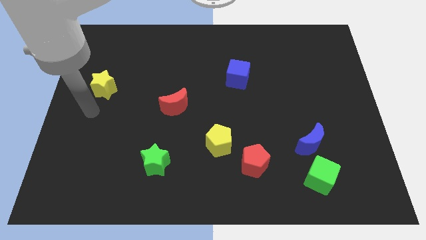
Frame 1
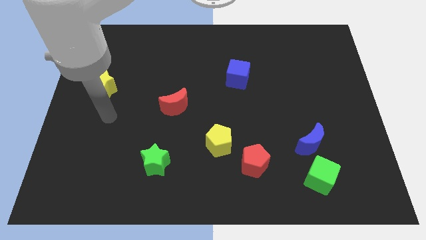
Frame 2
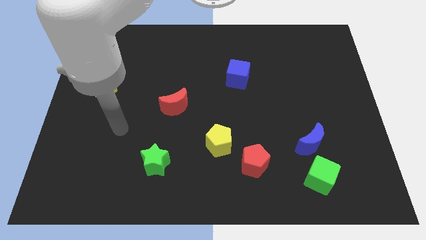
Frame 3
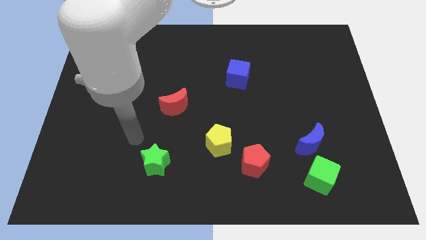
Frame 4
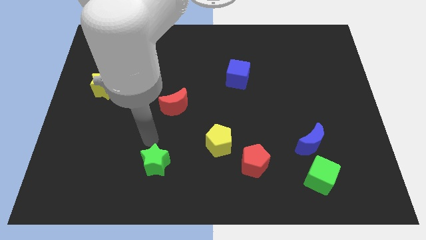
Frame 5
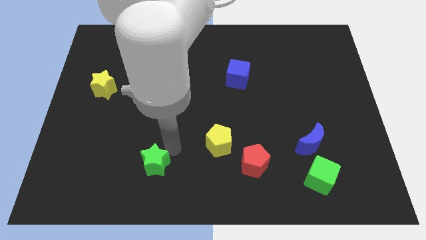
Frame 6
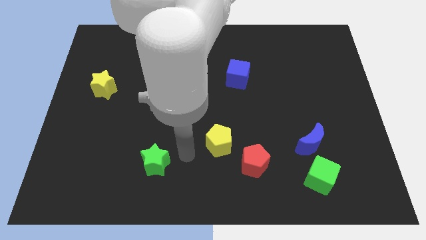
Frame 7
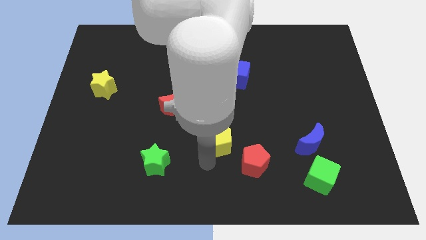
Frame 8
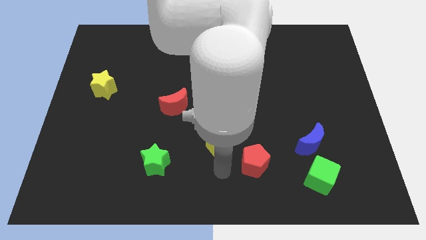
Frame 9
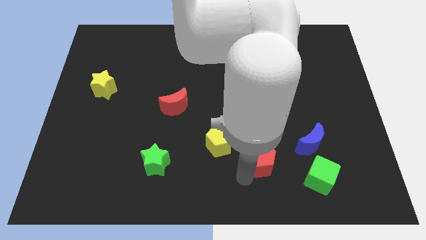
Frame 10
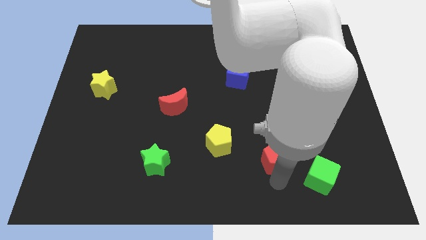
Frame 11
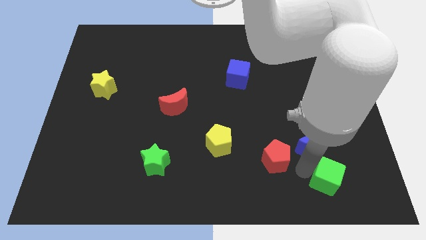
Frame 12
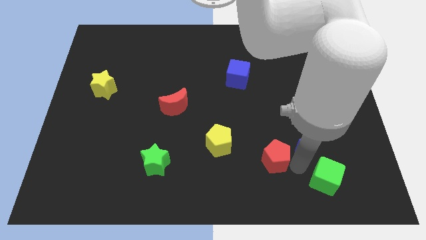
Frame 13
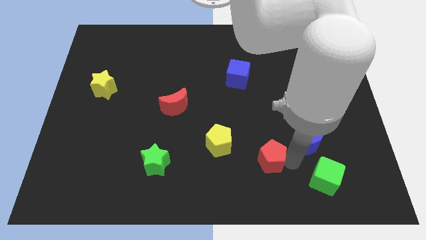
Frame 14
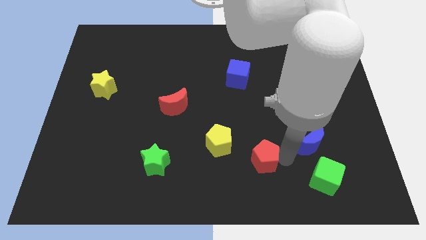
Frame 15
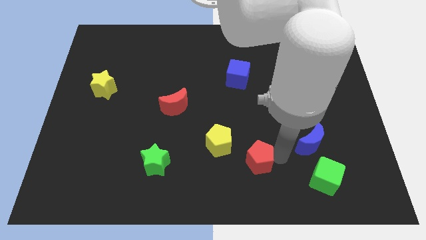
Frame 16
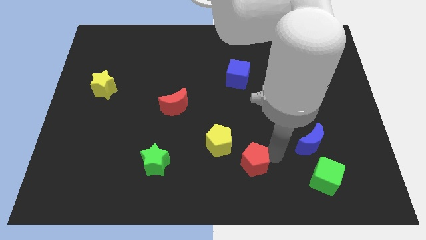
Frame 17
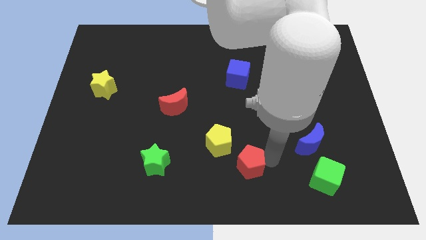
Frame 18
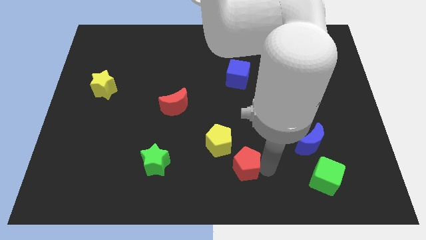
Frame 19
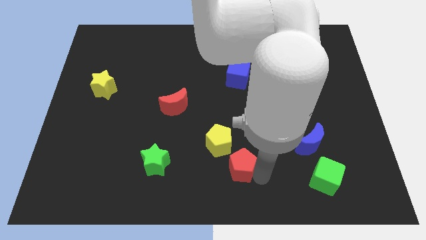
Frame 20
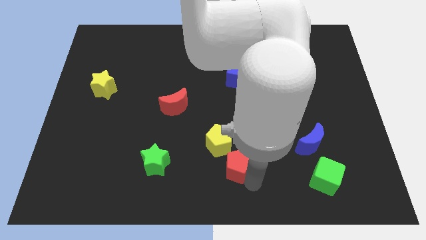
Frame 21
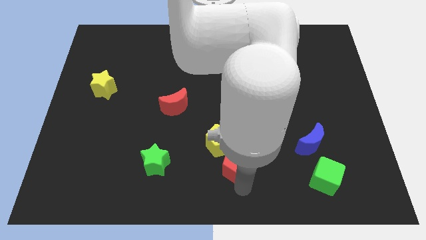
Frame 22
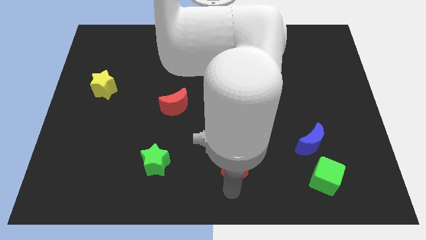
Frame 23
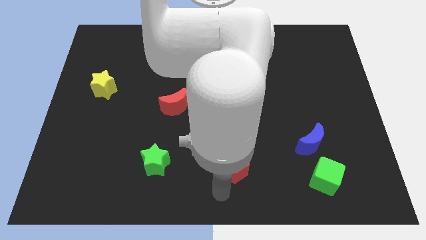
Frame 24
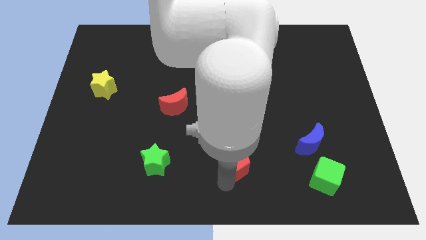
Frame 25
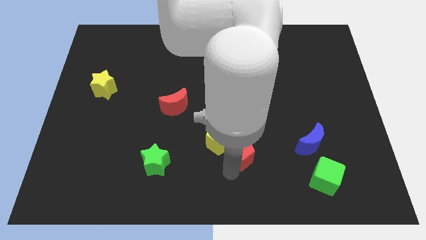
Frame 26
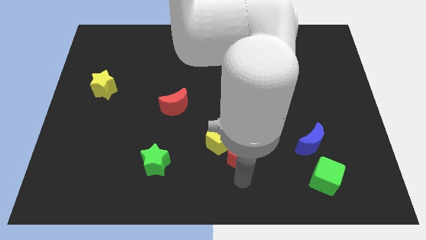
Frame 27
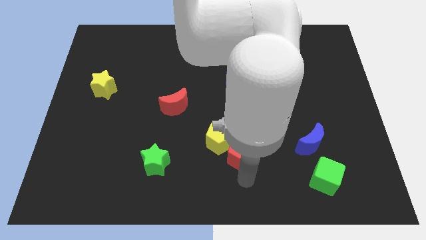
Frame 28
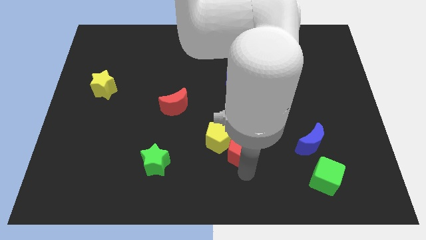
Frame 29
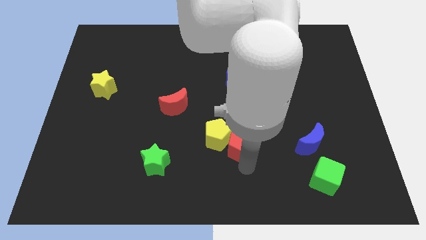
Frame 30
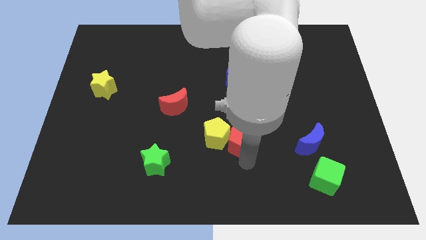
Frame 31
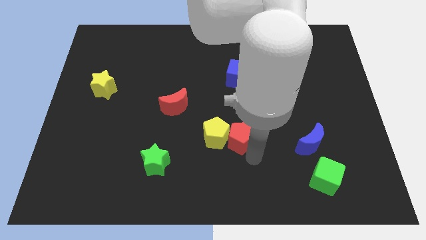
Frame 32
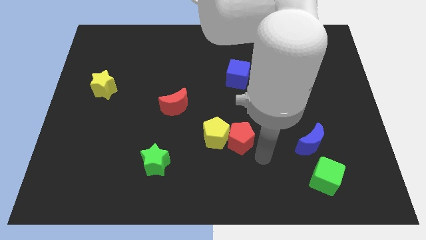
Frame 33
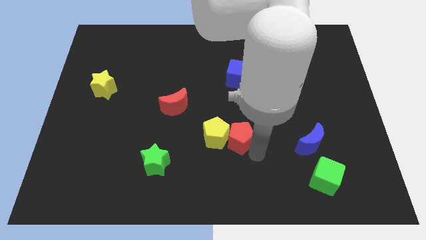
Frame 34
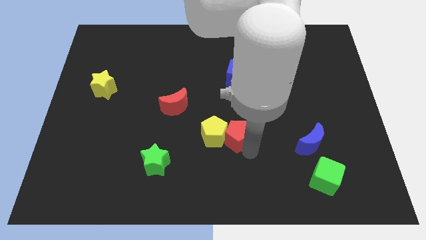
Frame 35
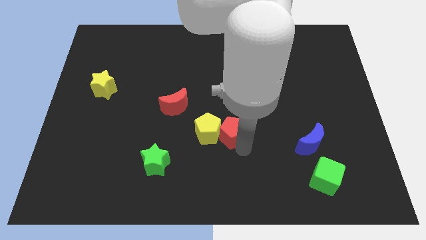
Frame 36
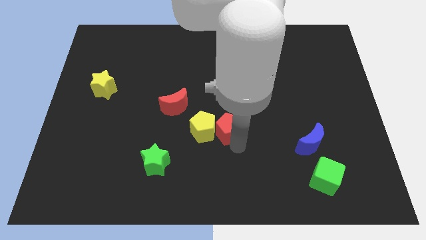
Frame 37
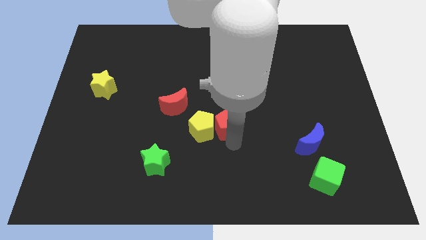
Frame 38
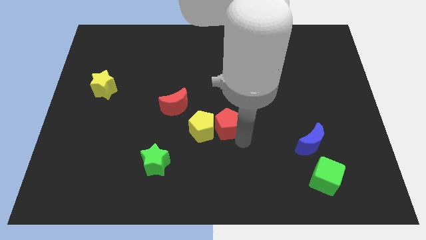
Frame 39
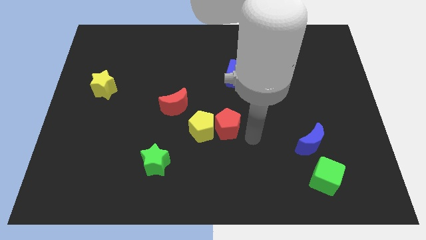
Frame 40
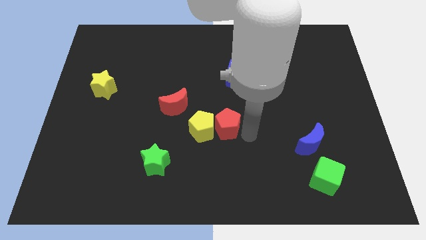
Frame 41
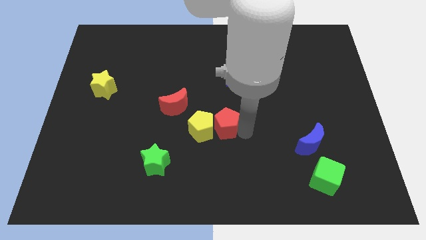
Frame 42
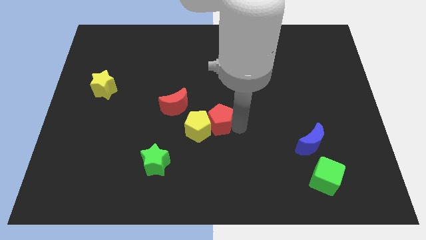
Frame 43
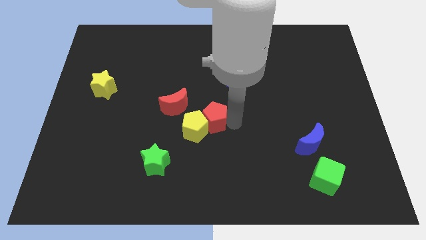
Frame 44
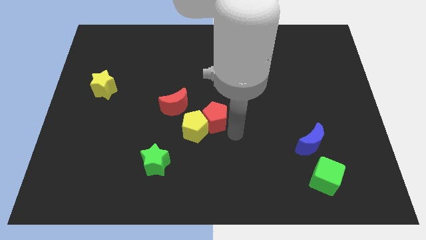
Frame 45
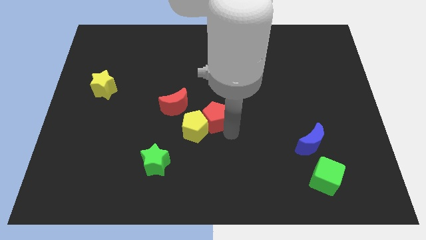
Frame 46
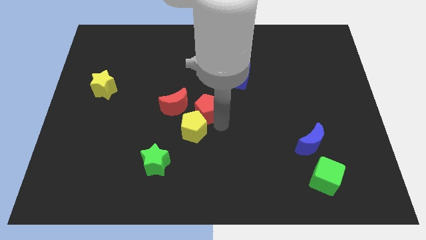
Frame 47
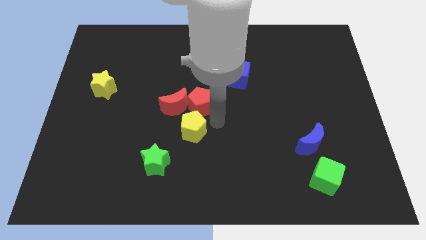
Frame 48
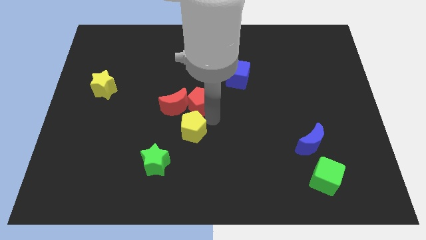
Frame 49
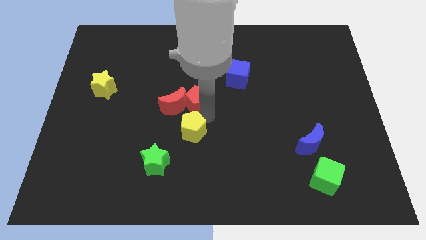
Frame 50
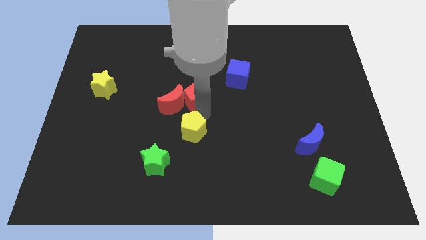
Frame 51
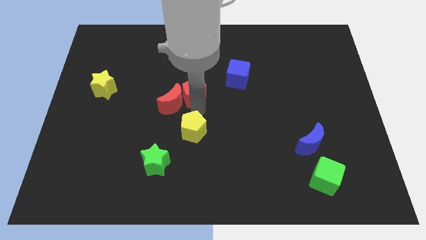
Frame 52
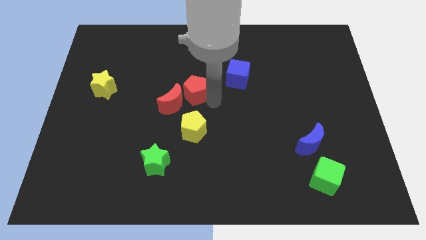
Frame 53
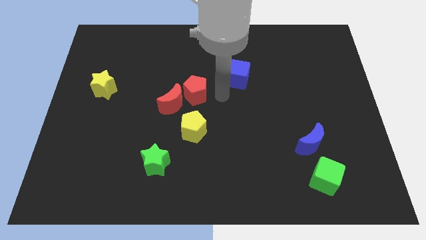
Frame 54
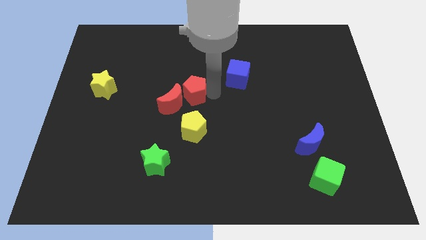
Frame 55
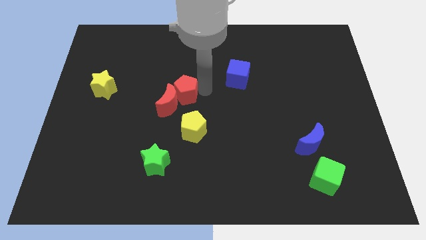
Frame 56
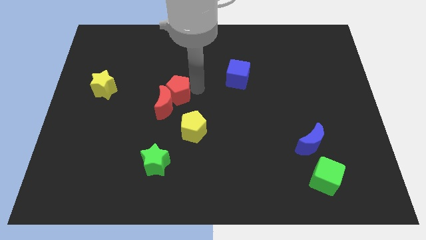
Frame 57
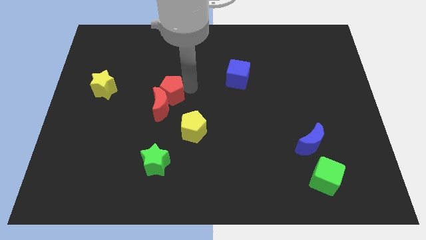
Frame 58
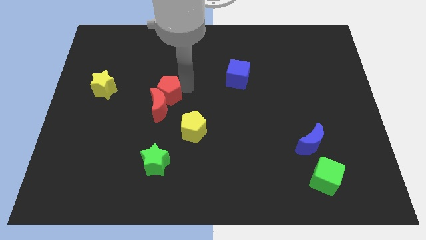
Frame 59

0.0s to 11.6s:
push the red pentagon to the right side of the yellow star

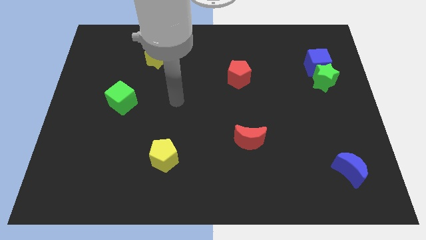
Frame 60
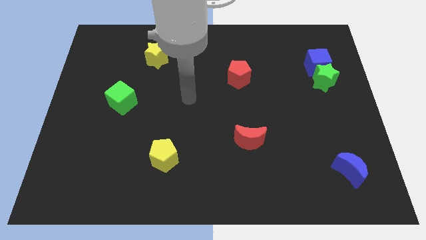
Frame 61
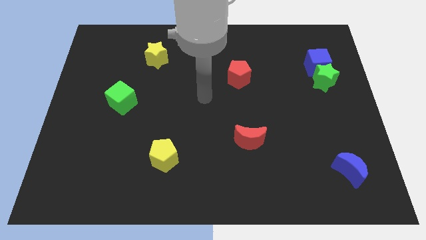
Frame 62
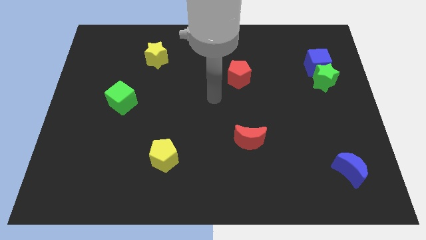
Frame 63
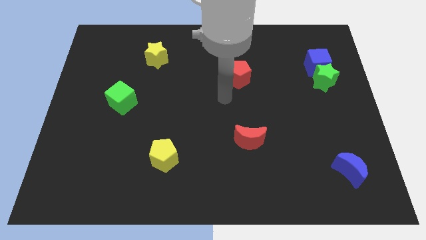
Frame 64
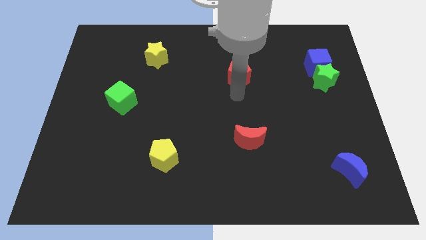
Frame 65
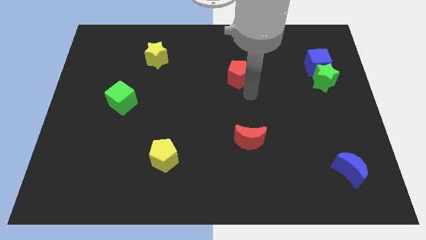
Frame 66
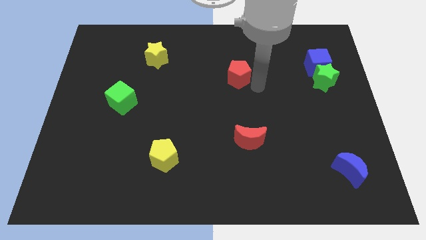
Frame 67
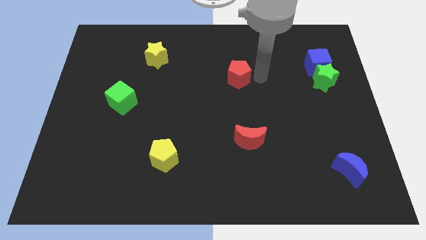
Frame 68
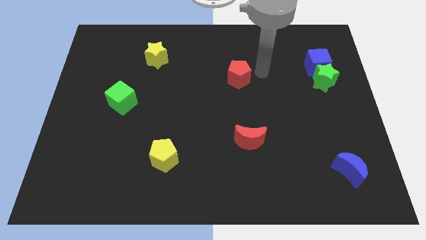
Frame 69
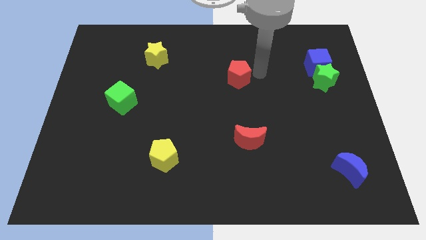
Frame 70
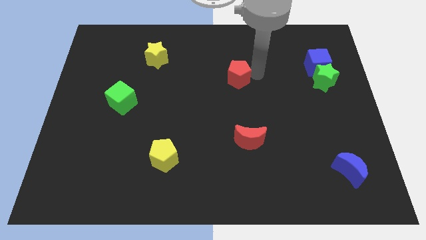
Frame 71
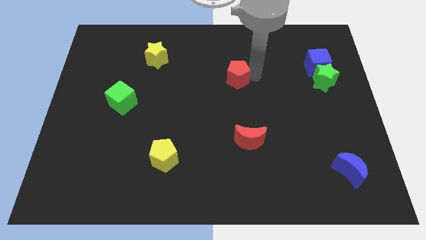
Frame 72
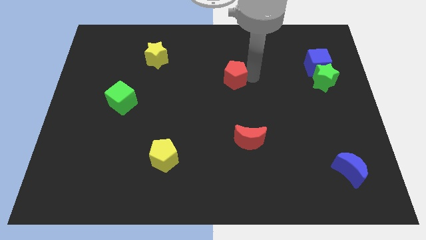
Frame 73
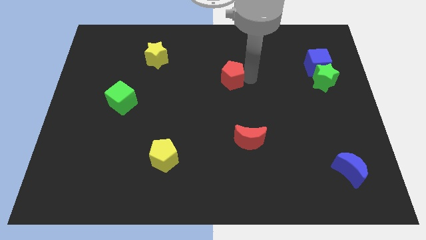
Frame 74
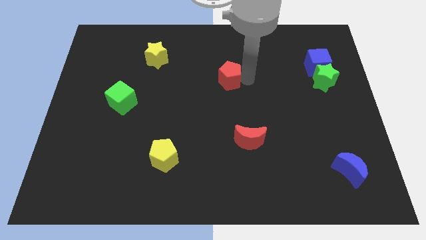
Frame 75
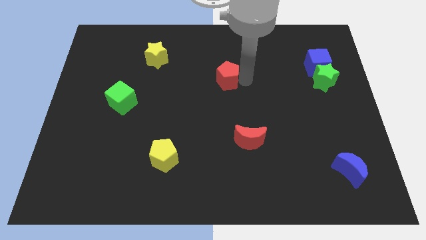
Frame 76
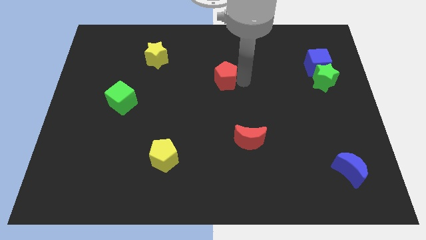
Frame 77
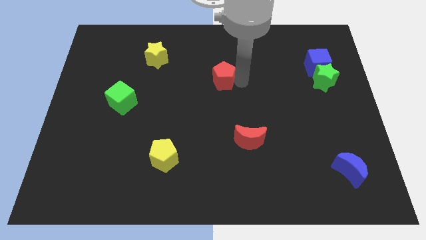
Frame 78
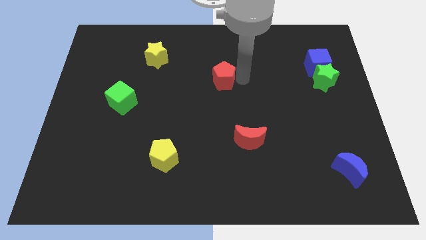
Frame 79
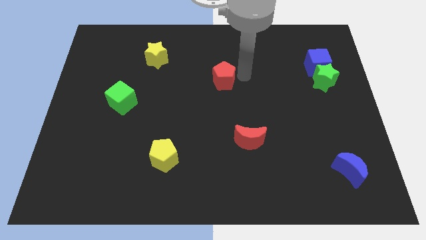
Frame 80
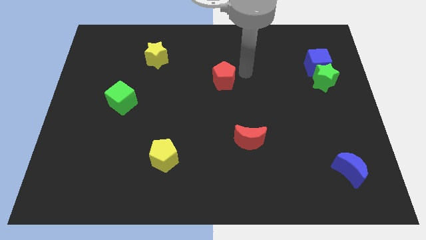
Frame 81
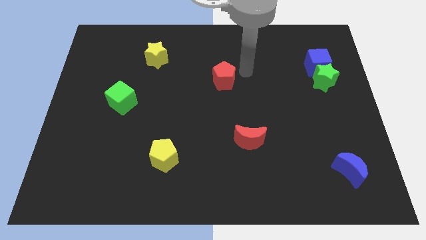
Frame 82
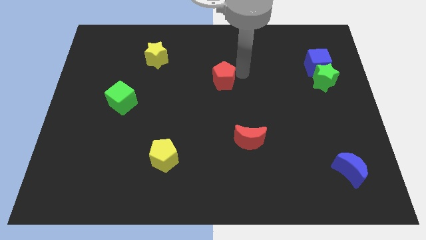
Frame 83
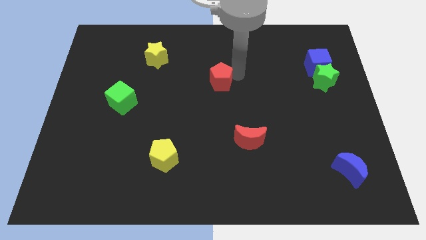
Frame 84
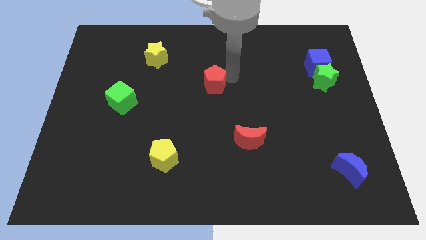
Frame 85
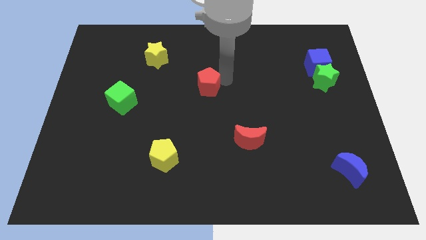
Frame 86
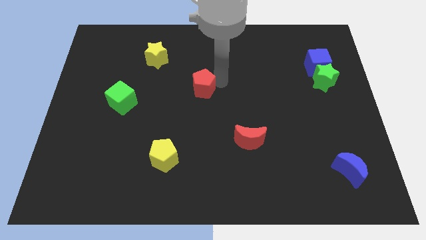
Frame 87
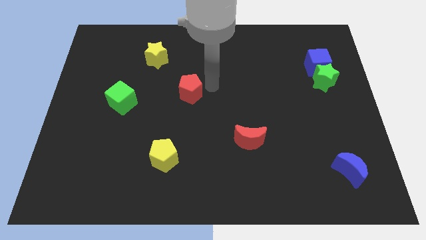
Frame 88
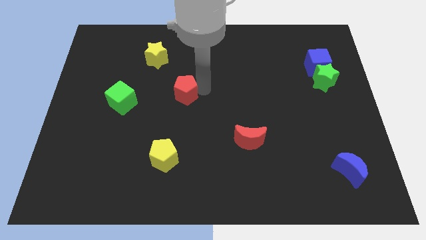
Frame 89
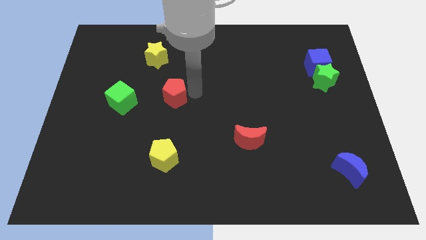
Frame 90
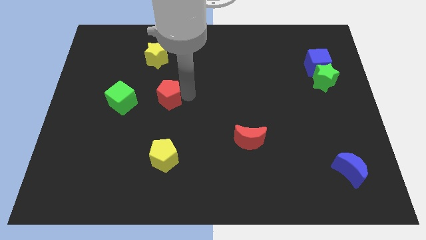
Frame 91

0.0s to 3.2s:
move the red pentagon to the bottom of the yellow star
